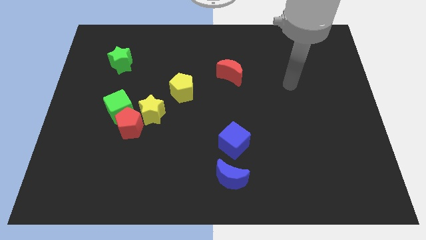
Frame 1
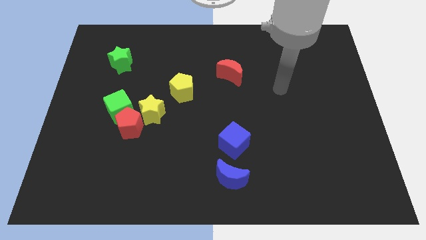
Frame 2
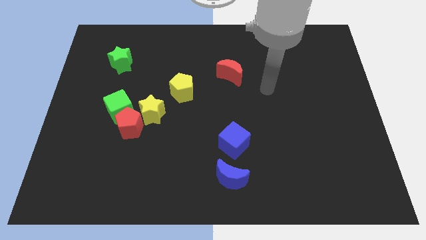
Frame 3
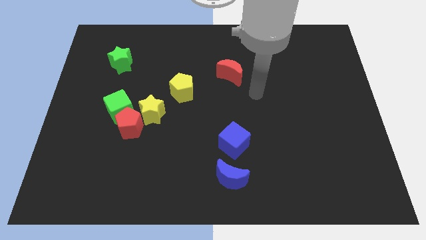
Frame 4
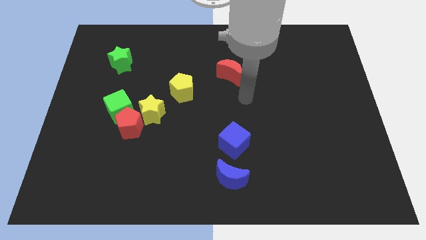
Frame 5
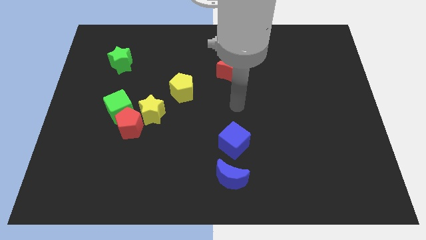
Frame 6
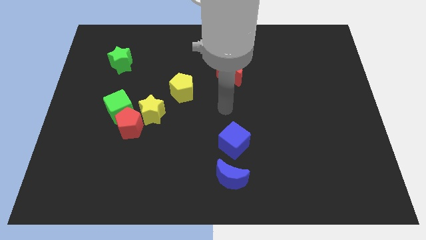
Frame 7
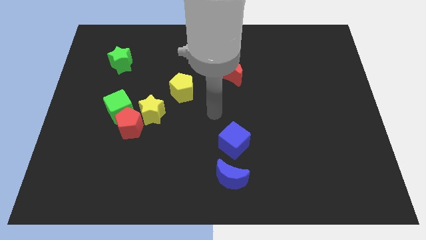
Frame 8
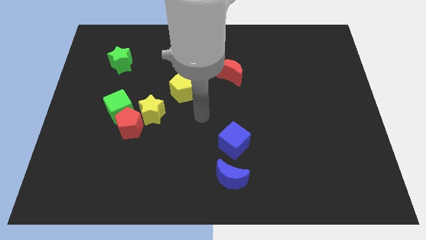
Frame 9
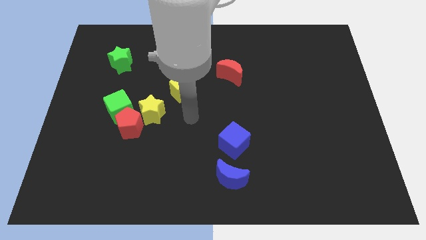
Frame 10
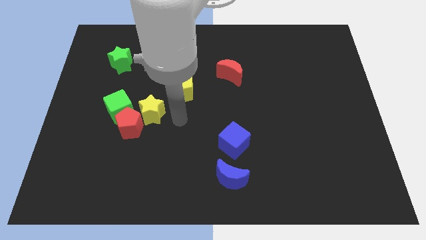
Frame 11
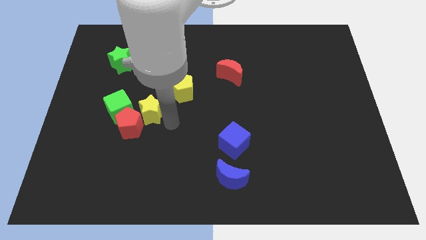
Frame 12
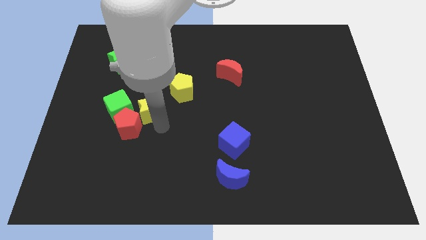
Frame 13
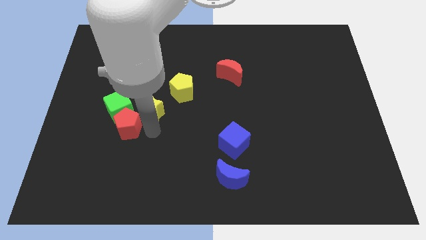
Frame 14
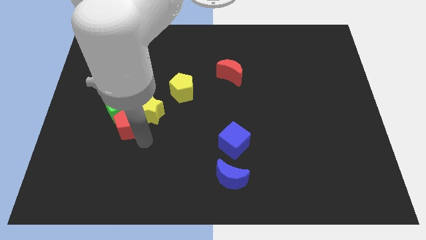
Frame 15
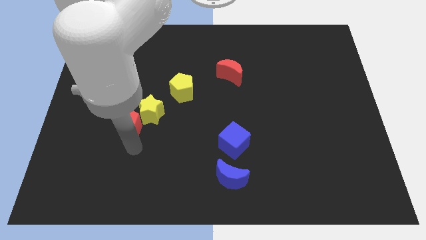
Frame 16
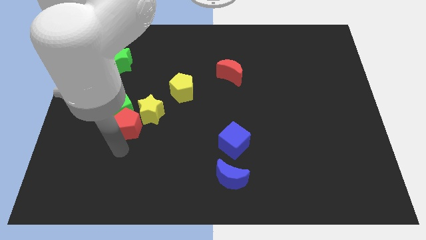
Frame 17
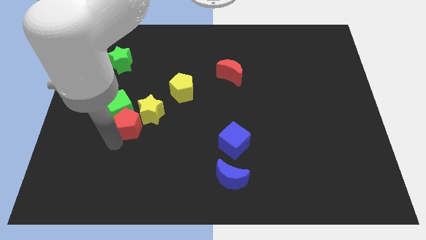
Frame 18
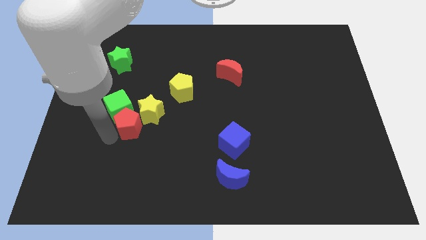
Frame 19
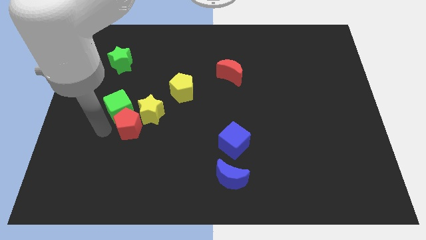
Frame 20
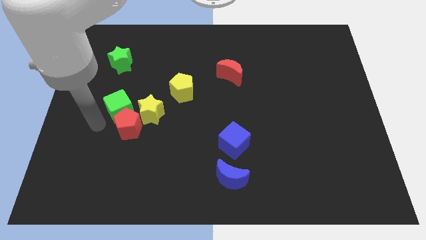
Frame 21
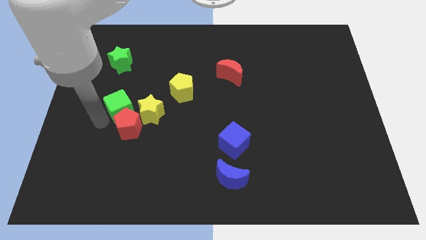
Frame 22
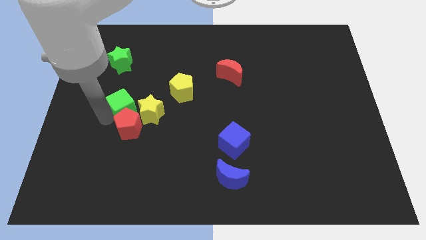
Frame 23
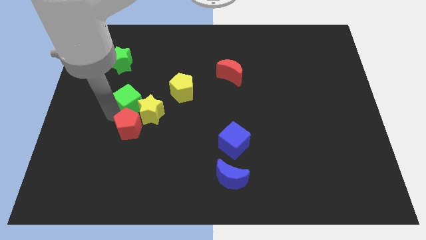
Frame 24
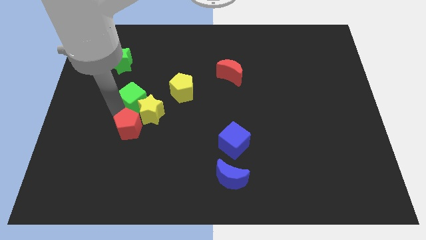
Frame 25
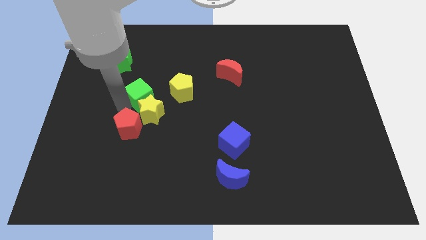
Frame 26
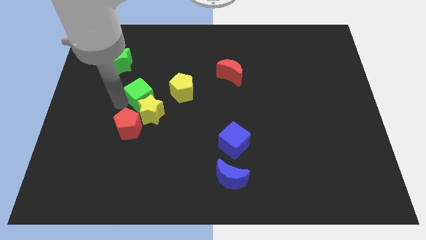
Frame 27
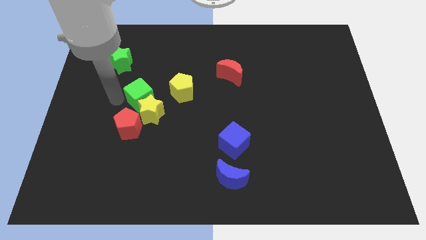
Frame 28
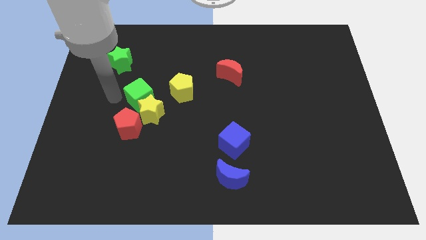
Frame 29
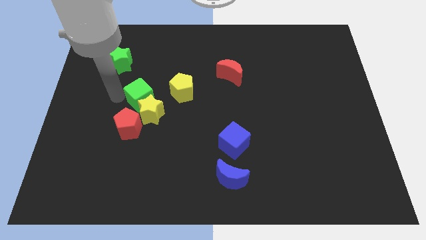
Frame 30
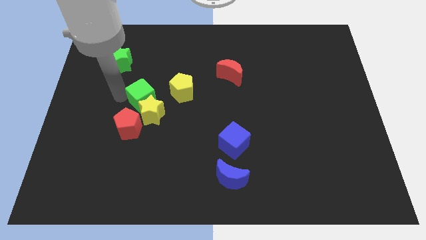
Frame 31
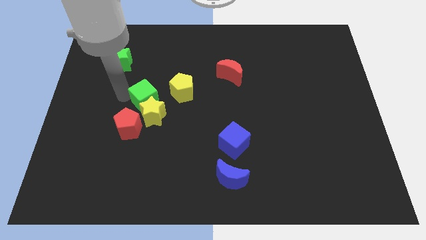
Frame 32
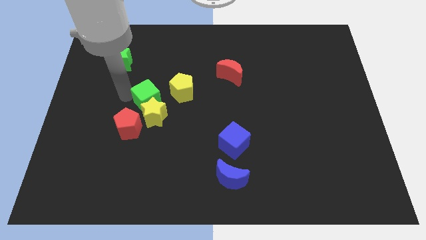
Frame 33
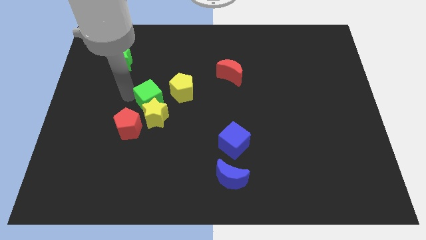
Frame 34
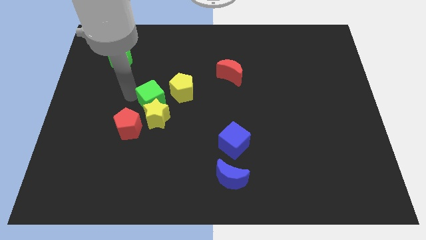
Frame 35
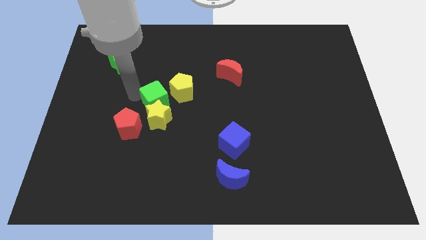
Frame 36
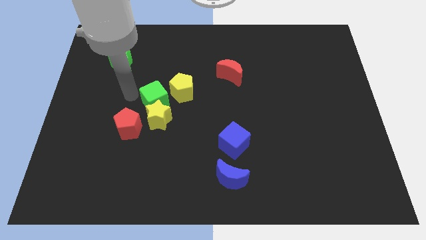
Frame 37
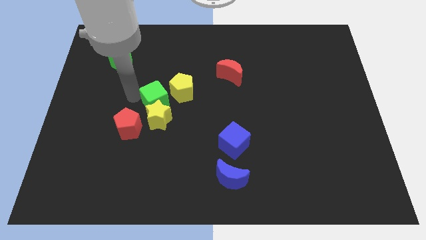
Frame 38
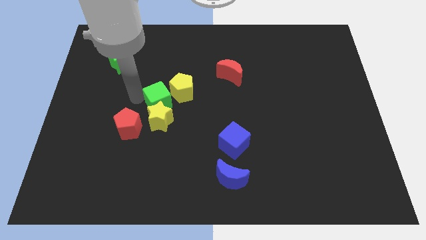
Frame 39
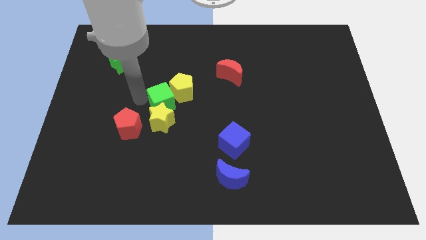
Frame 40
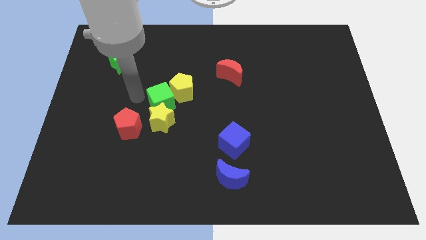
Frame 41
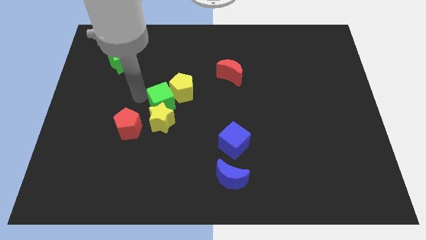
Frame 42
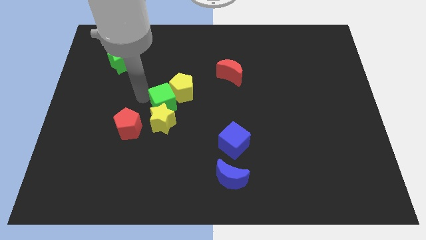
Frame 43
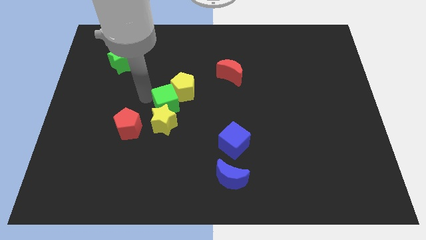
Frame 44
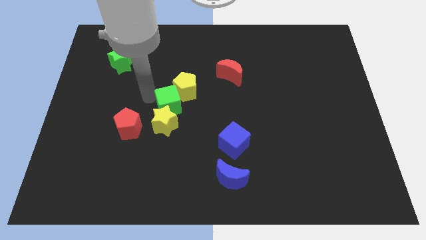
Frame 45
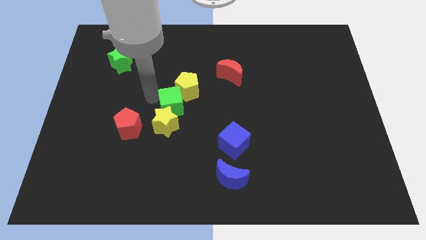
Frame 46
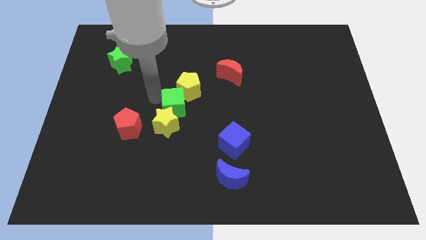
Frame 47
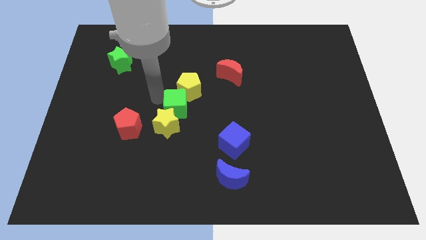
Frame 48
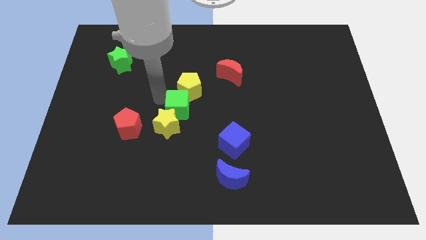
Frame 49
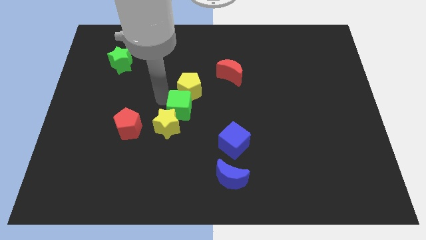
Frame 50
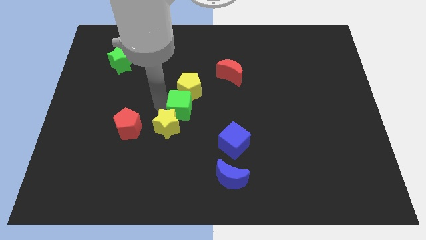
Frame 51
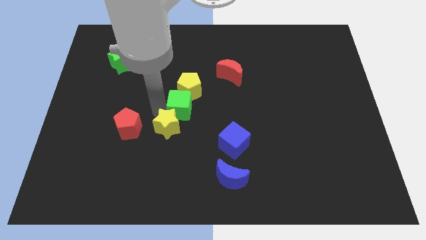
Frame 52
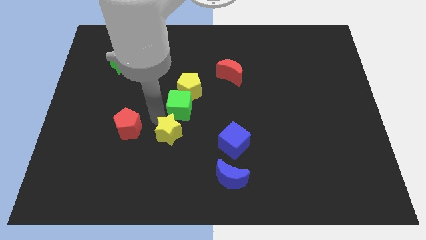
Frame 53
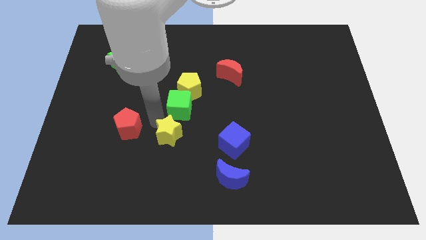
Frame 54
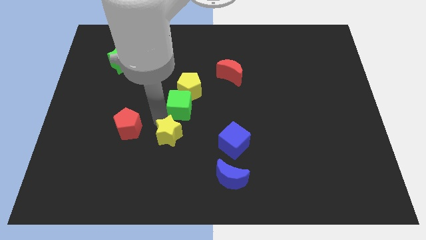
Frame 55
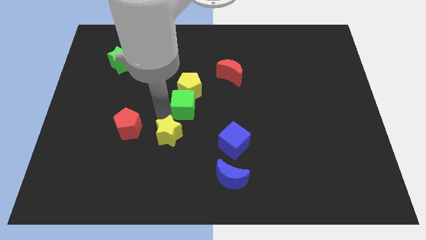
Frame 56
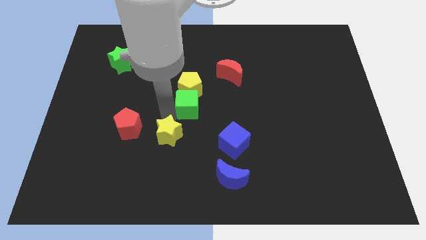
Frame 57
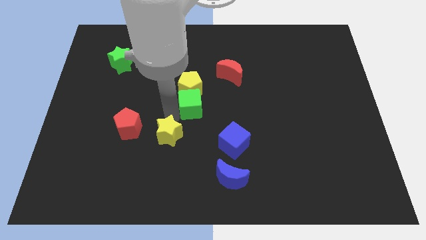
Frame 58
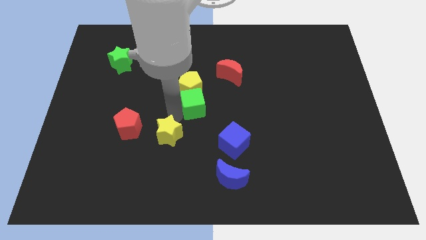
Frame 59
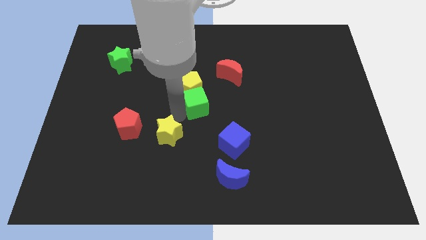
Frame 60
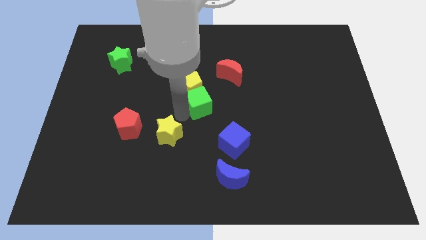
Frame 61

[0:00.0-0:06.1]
slide the green cube diagonally down and to the left of the red moon

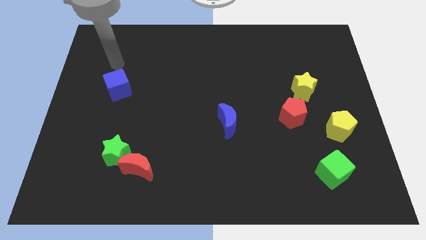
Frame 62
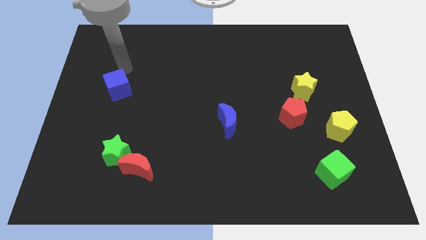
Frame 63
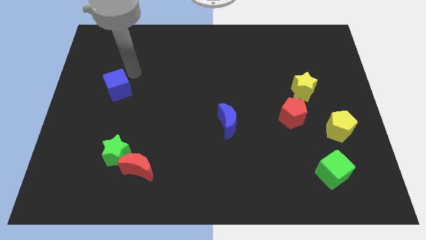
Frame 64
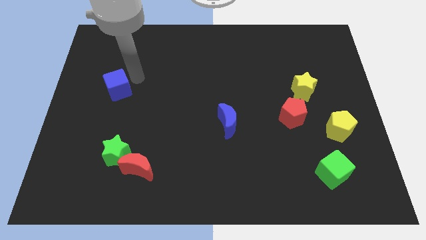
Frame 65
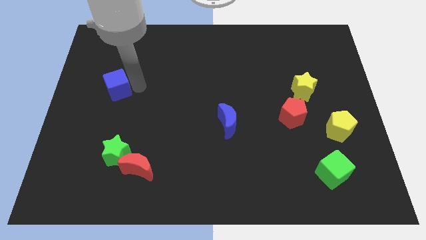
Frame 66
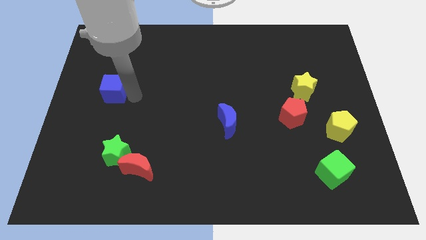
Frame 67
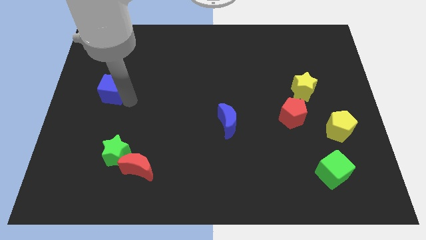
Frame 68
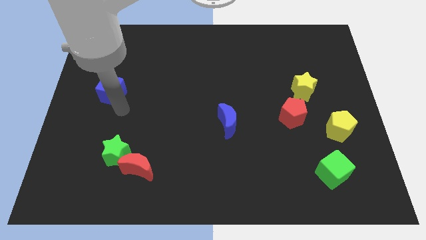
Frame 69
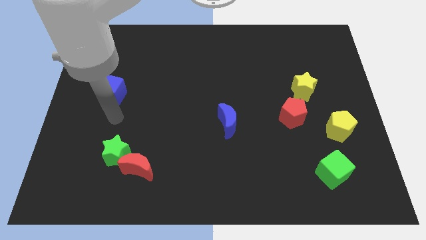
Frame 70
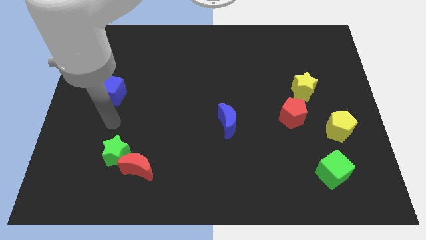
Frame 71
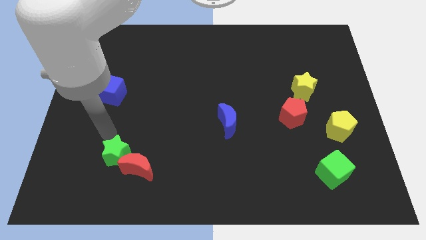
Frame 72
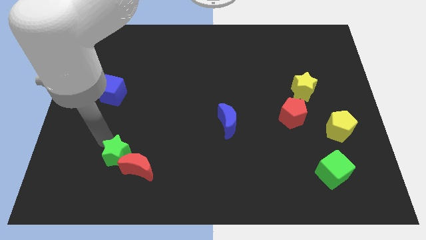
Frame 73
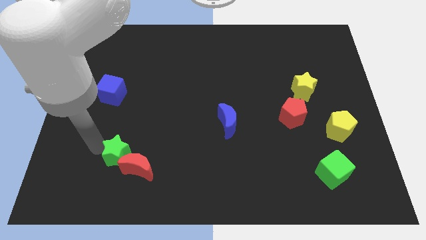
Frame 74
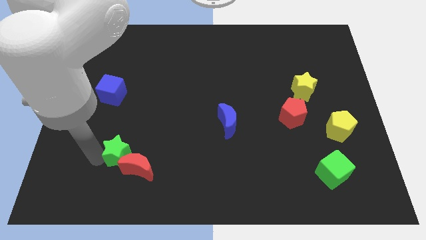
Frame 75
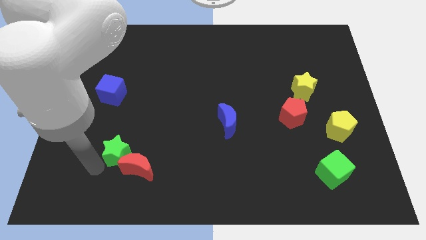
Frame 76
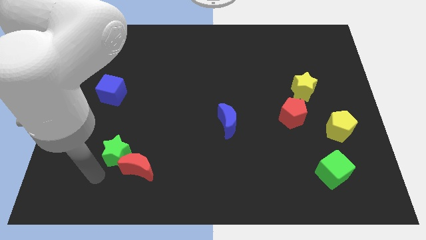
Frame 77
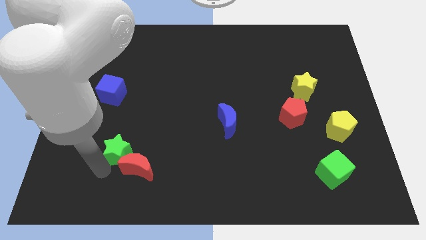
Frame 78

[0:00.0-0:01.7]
put the green star above the red moon
